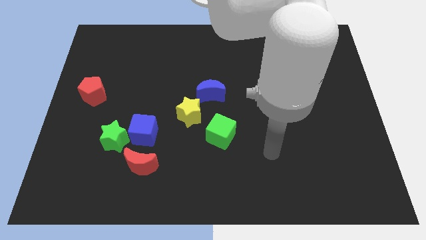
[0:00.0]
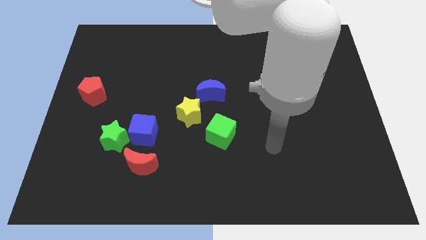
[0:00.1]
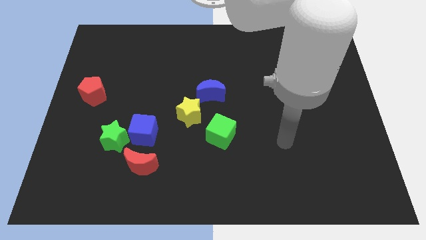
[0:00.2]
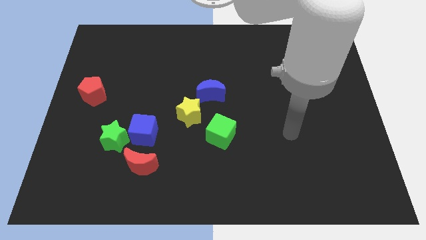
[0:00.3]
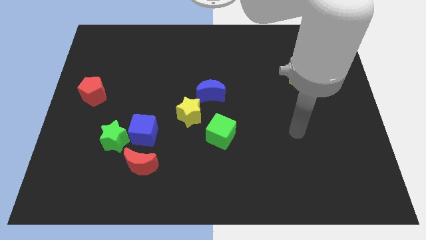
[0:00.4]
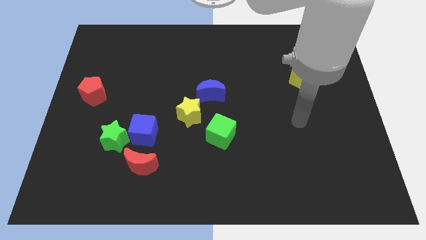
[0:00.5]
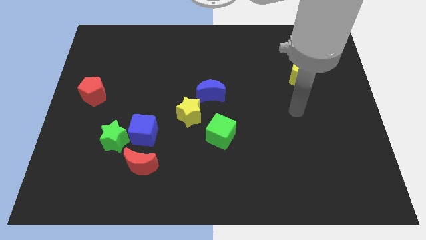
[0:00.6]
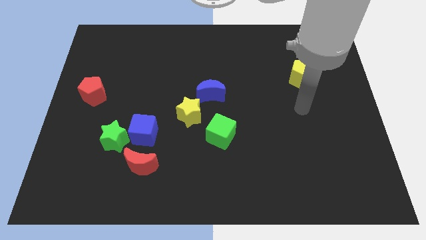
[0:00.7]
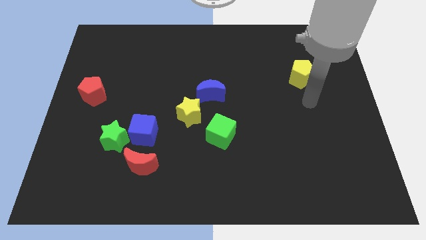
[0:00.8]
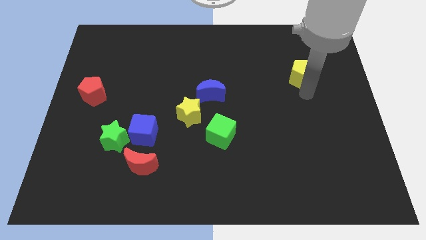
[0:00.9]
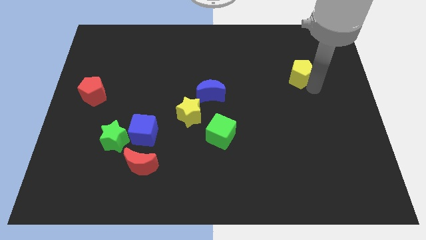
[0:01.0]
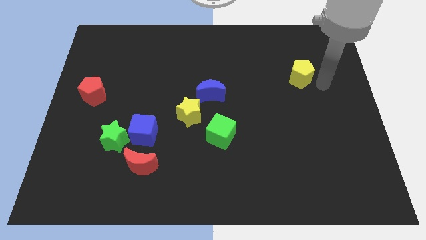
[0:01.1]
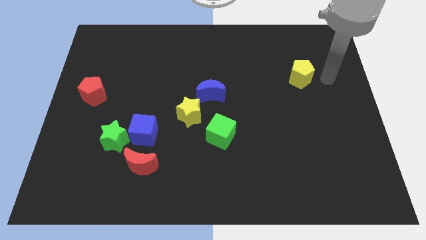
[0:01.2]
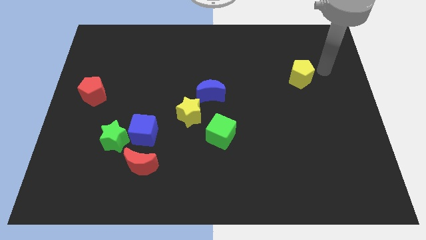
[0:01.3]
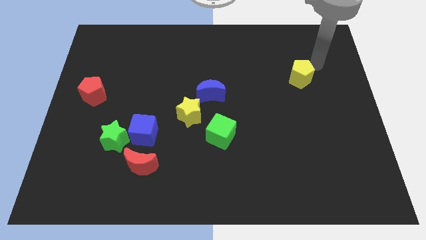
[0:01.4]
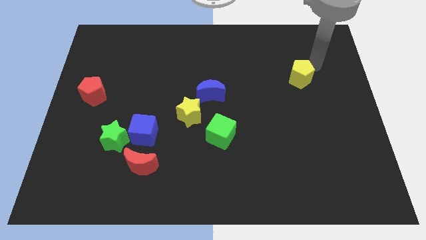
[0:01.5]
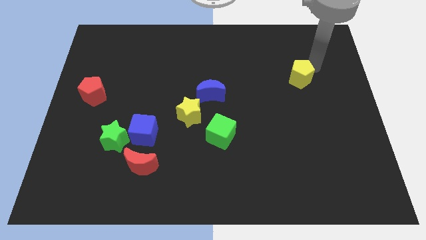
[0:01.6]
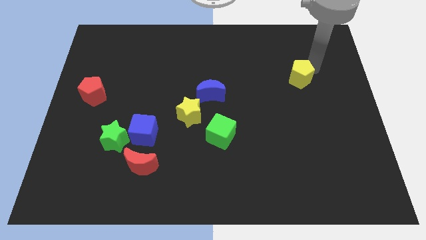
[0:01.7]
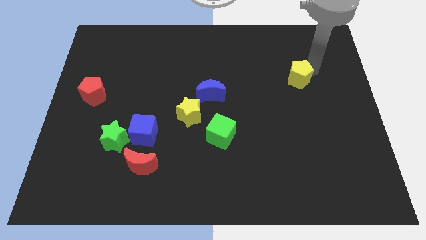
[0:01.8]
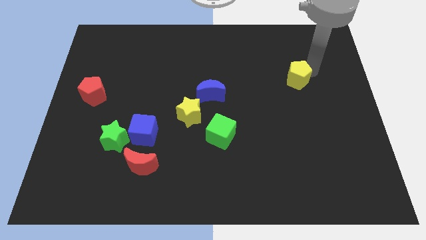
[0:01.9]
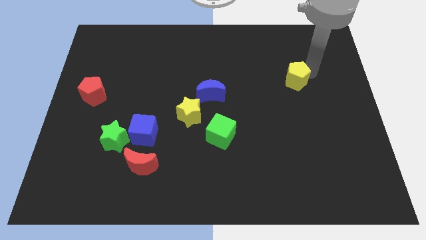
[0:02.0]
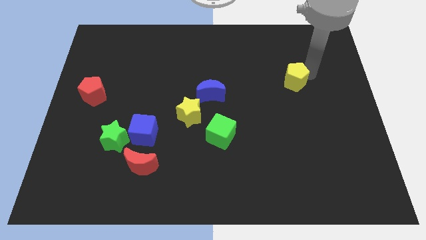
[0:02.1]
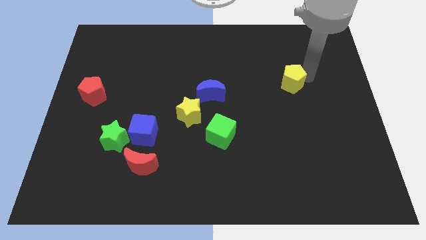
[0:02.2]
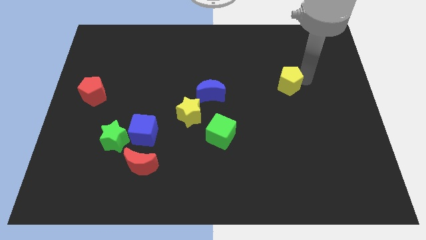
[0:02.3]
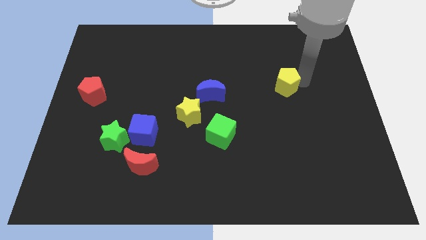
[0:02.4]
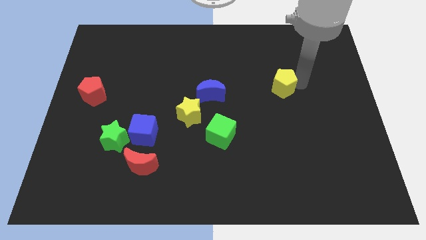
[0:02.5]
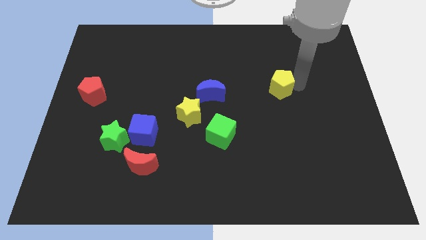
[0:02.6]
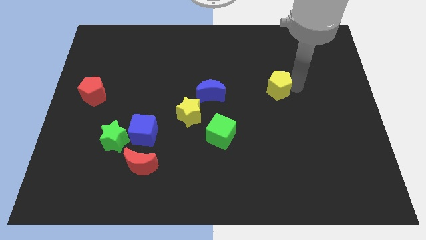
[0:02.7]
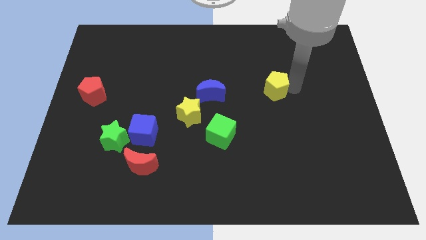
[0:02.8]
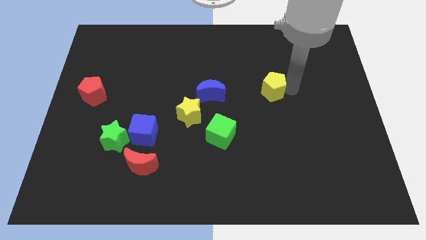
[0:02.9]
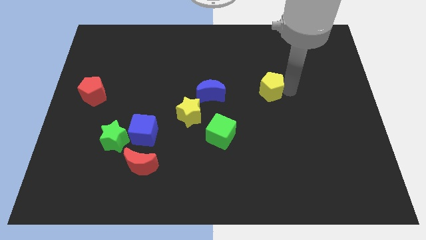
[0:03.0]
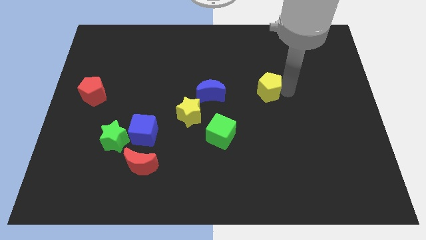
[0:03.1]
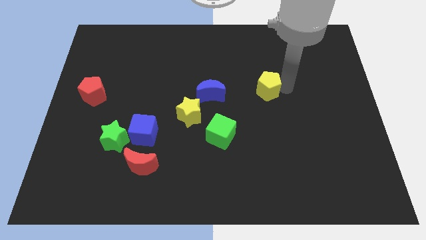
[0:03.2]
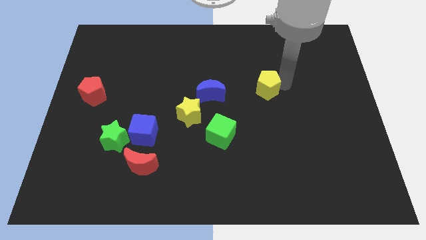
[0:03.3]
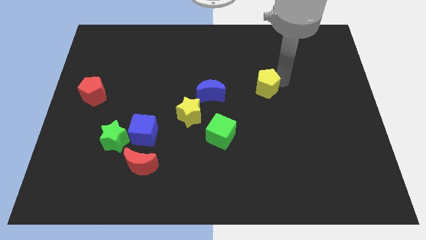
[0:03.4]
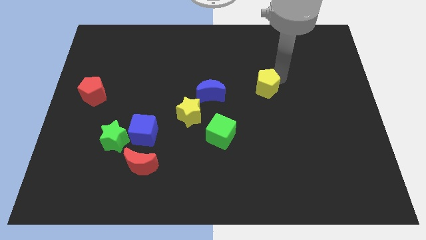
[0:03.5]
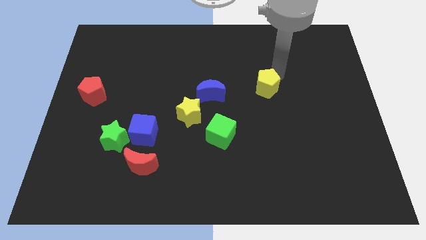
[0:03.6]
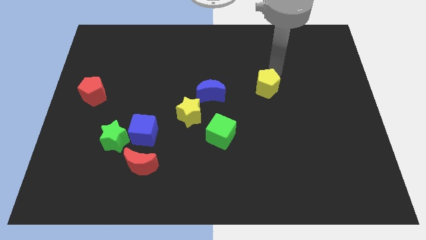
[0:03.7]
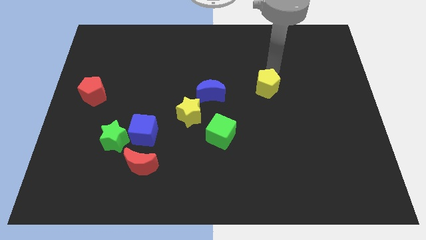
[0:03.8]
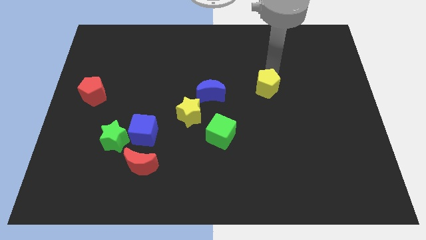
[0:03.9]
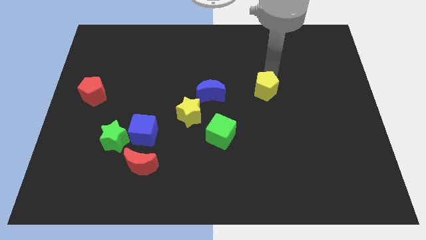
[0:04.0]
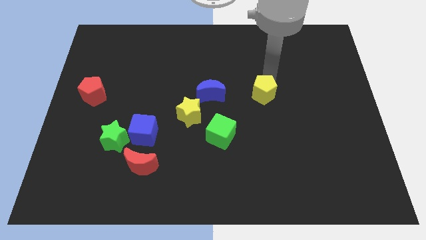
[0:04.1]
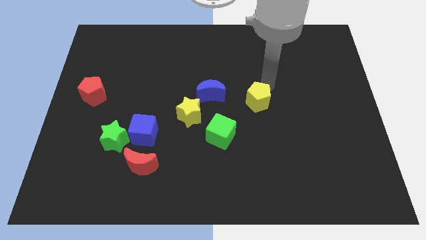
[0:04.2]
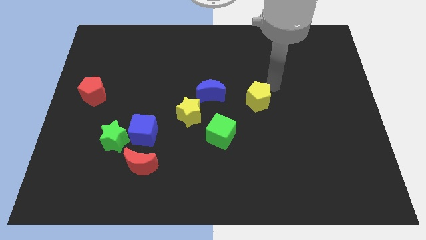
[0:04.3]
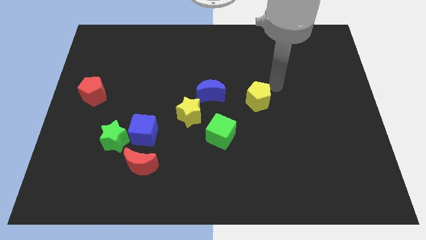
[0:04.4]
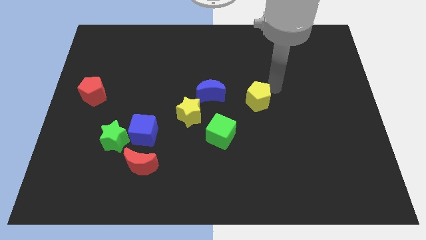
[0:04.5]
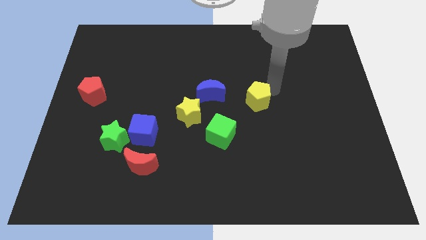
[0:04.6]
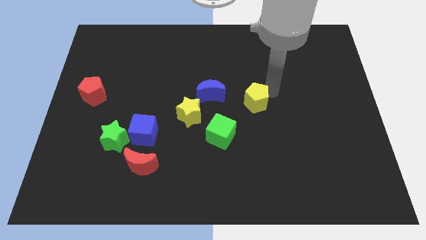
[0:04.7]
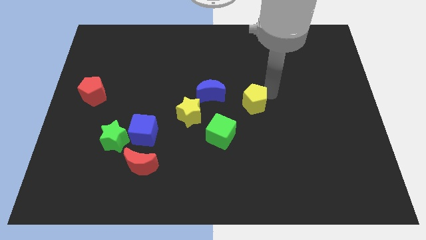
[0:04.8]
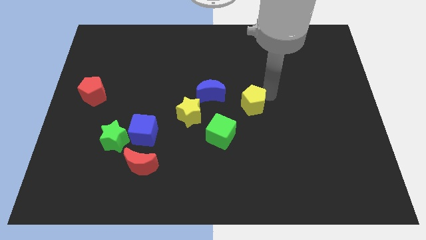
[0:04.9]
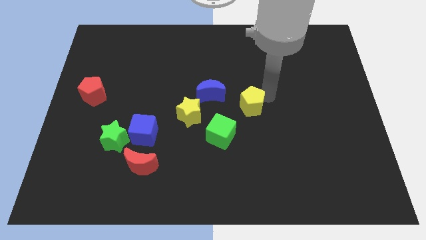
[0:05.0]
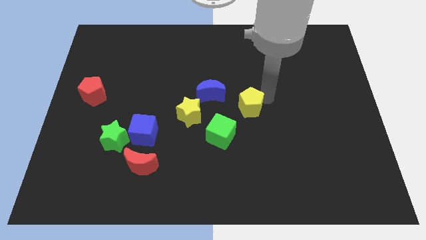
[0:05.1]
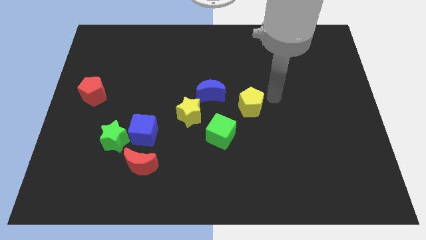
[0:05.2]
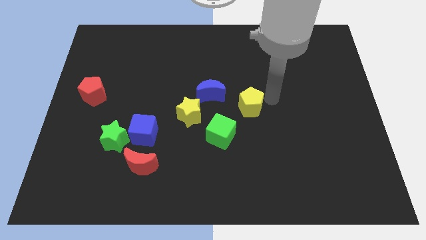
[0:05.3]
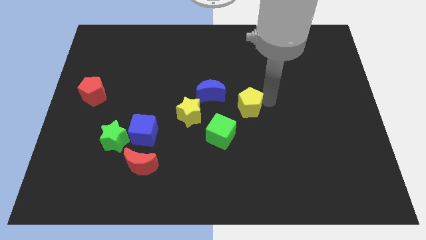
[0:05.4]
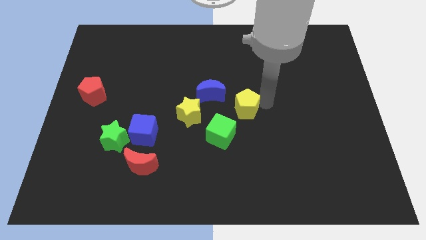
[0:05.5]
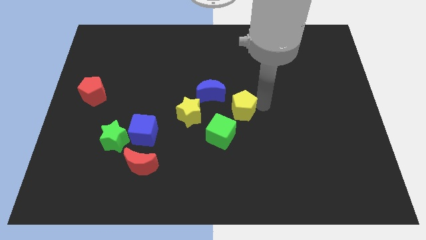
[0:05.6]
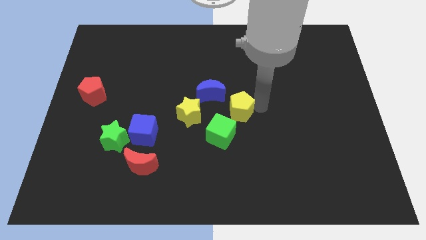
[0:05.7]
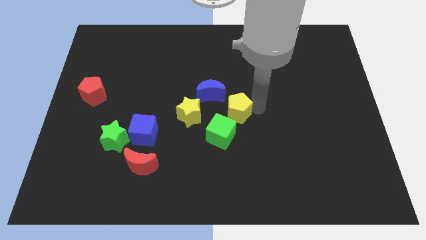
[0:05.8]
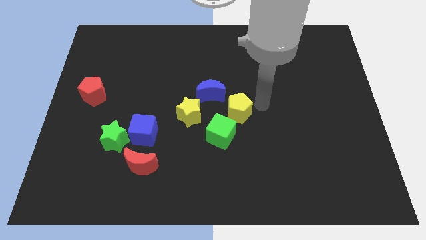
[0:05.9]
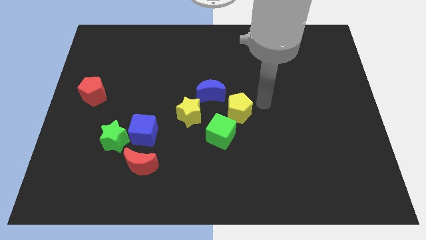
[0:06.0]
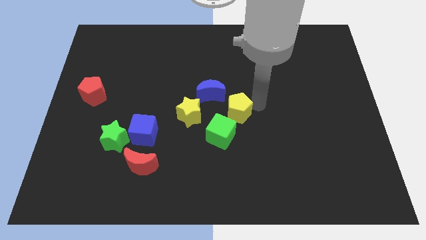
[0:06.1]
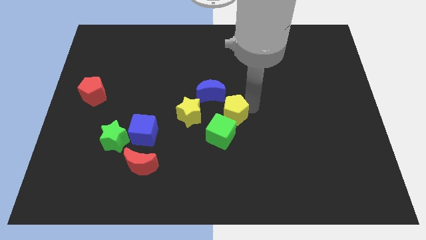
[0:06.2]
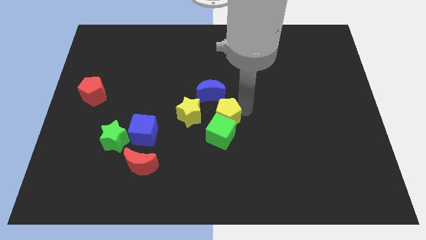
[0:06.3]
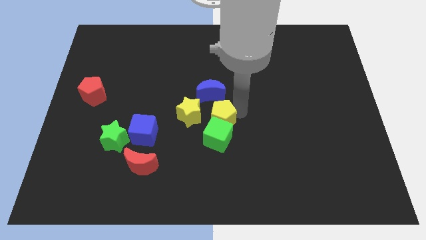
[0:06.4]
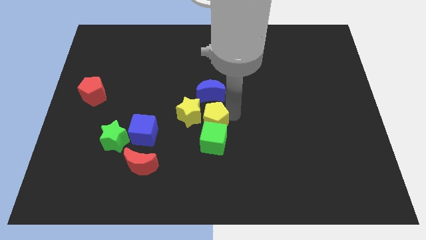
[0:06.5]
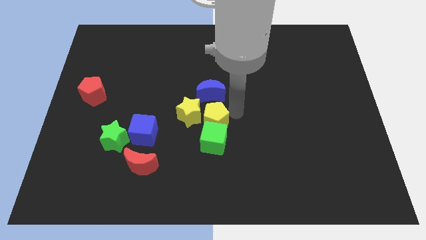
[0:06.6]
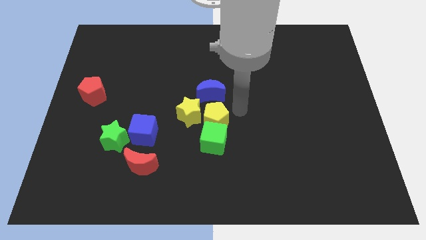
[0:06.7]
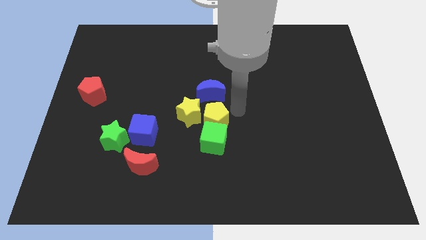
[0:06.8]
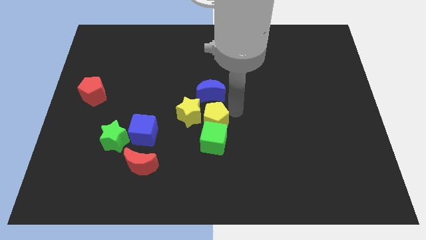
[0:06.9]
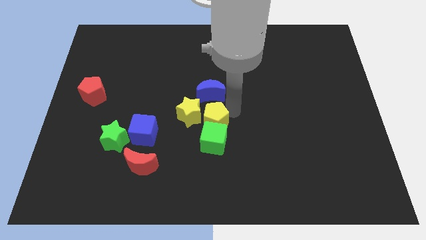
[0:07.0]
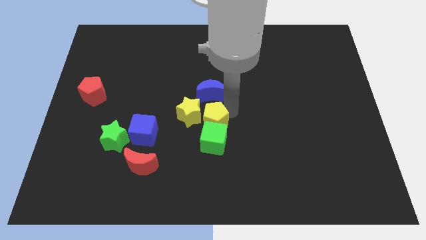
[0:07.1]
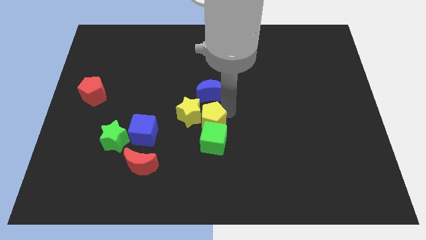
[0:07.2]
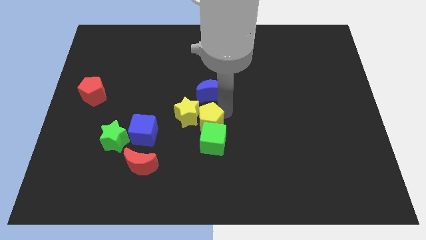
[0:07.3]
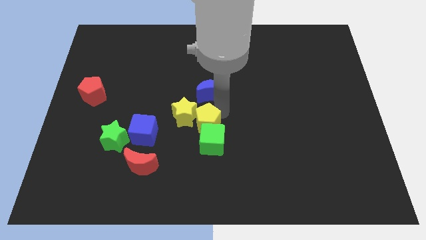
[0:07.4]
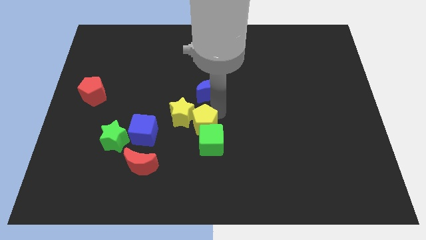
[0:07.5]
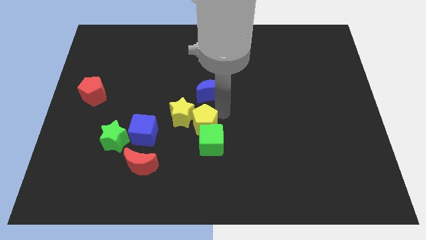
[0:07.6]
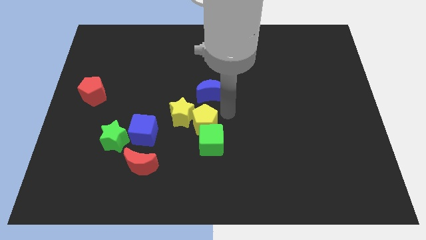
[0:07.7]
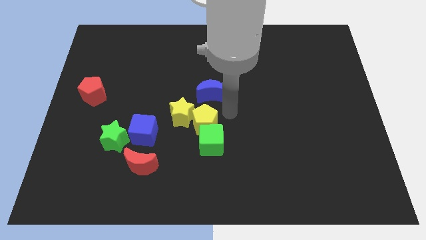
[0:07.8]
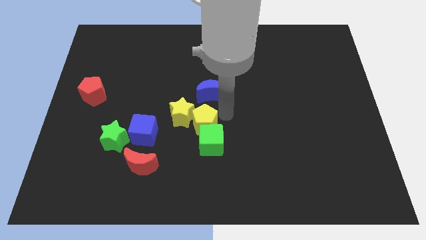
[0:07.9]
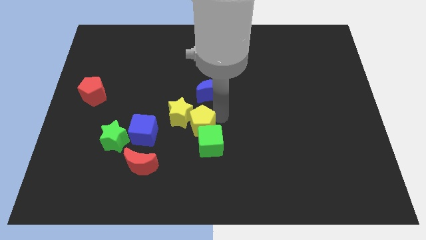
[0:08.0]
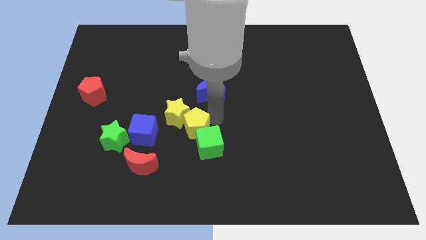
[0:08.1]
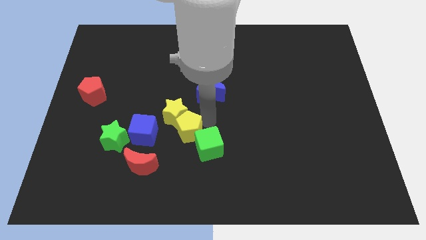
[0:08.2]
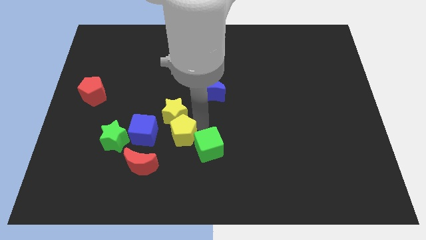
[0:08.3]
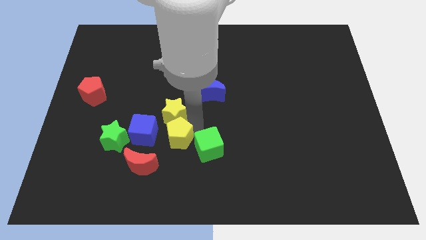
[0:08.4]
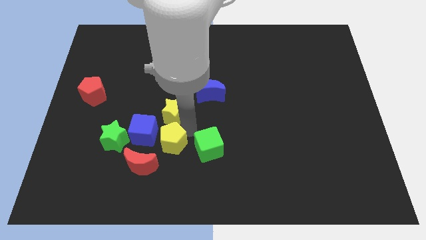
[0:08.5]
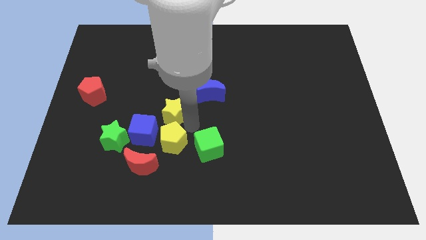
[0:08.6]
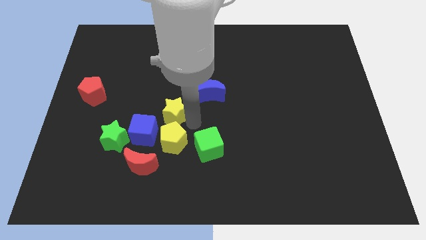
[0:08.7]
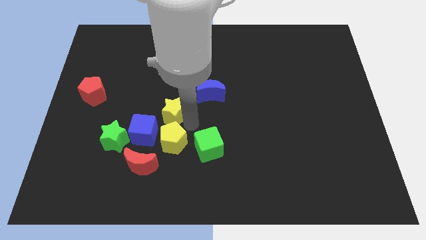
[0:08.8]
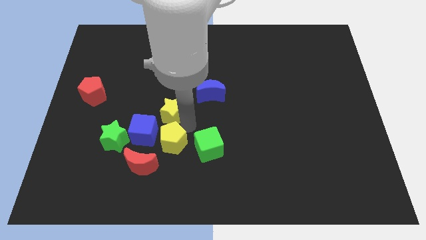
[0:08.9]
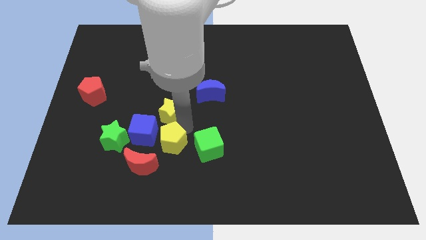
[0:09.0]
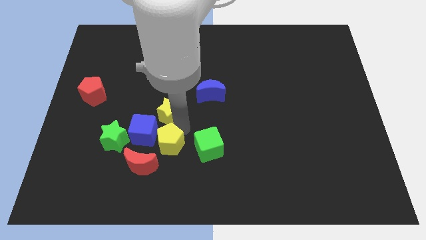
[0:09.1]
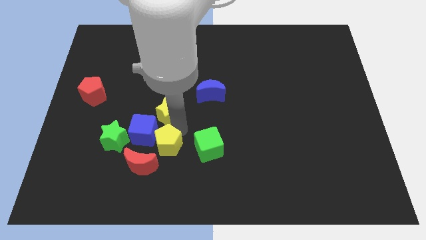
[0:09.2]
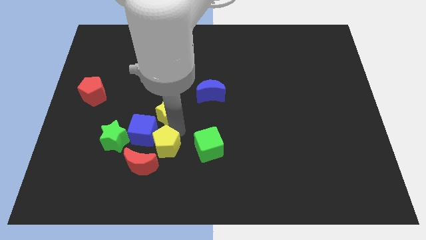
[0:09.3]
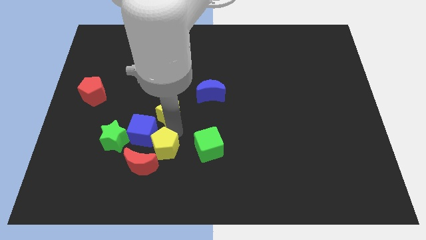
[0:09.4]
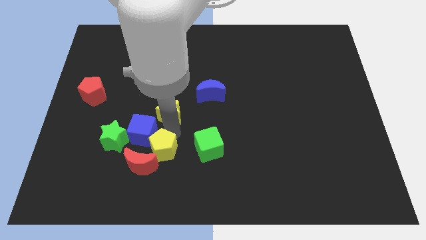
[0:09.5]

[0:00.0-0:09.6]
push the yellow pentagon close to the red moon
